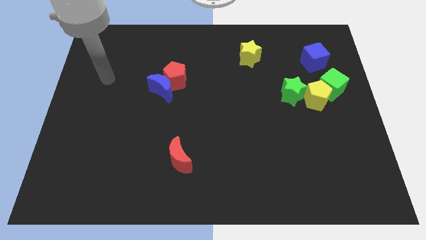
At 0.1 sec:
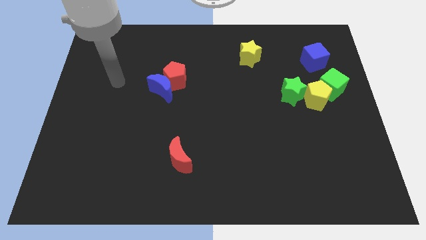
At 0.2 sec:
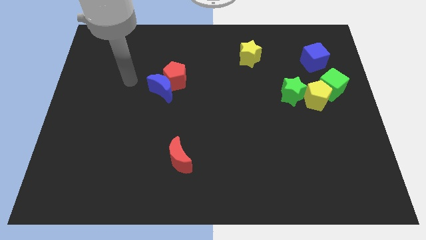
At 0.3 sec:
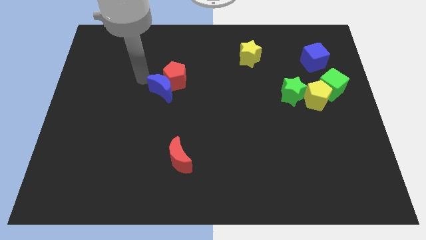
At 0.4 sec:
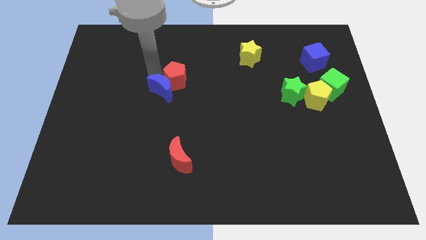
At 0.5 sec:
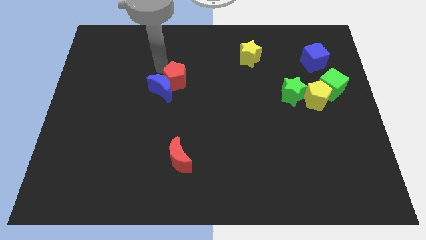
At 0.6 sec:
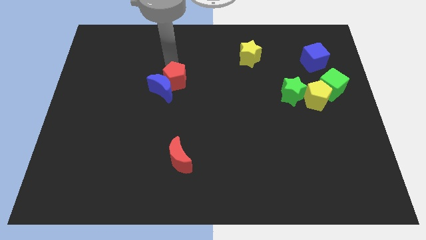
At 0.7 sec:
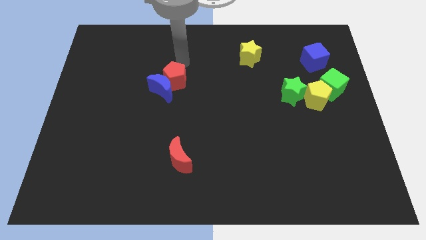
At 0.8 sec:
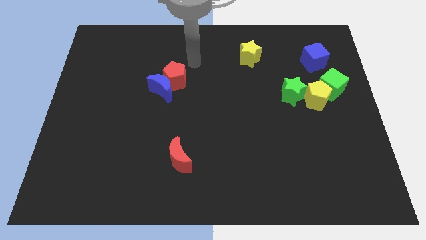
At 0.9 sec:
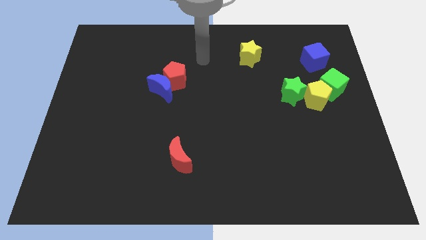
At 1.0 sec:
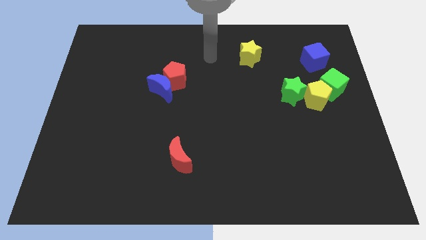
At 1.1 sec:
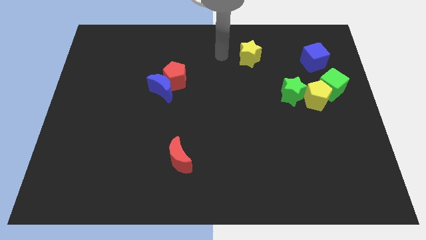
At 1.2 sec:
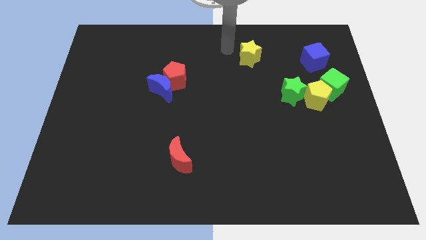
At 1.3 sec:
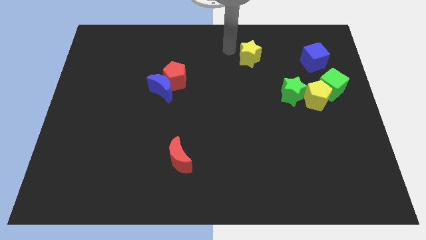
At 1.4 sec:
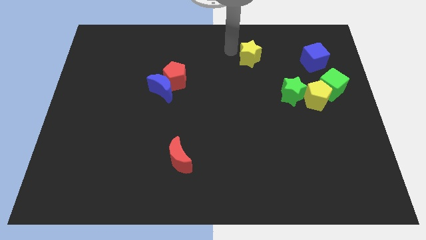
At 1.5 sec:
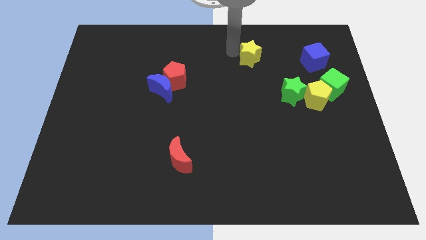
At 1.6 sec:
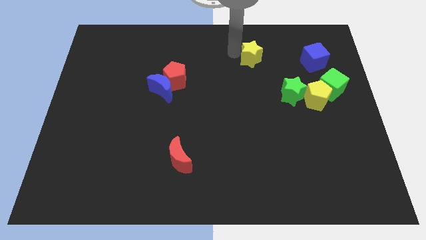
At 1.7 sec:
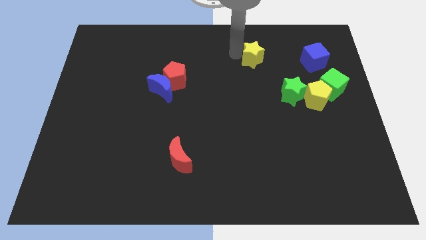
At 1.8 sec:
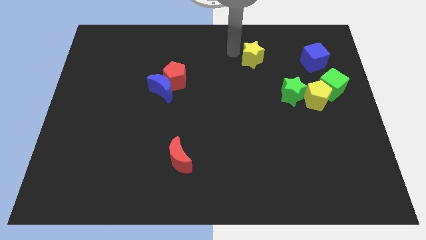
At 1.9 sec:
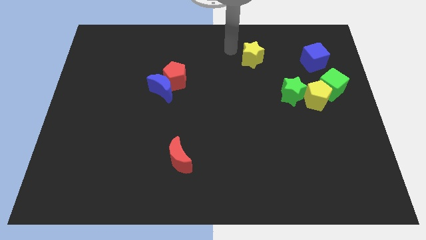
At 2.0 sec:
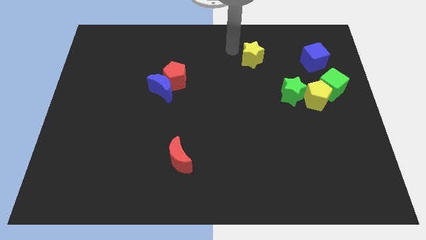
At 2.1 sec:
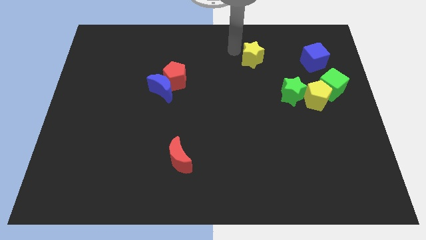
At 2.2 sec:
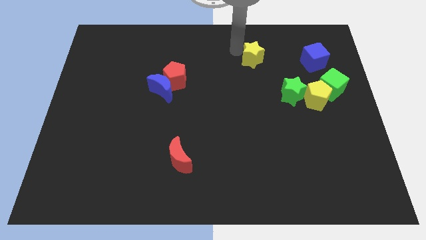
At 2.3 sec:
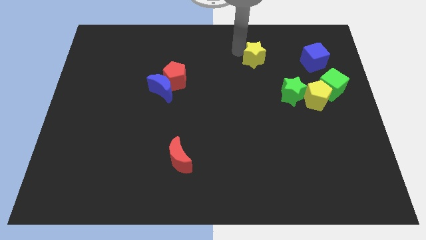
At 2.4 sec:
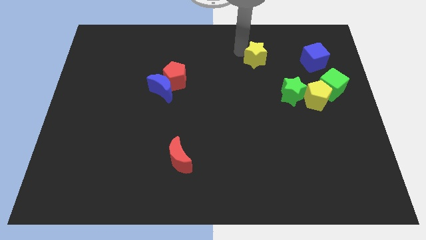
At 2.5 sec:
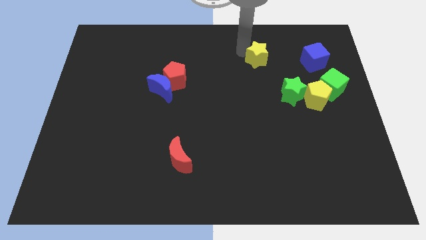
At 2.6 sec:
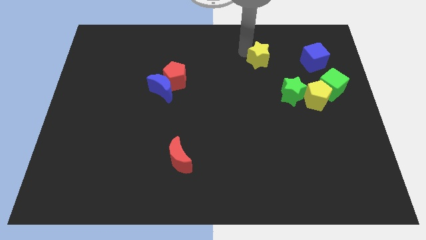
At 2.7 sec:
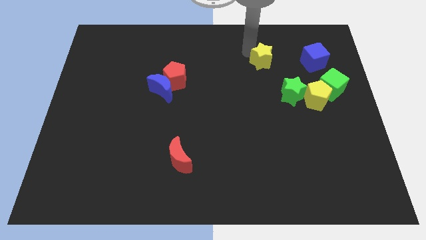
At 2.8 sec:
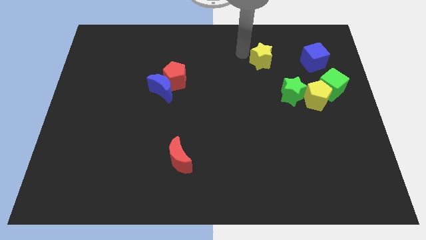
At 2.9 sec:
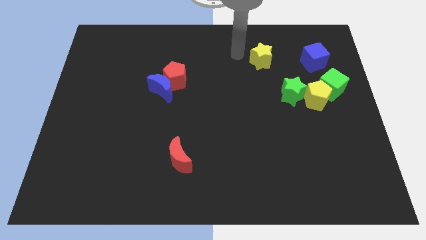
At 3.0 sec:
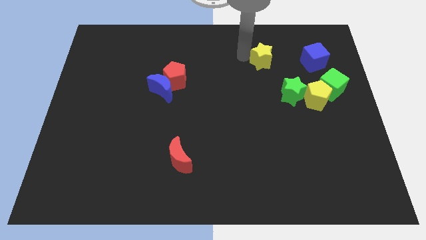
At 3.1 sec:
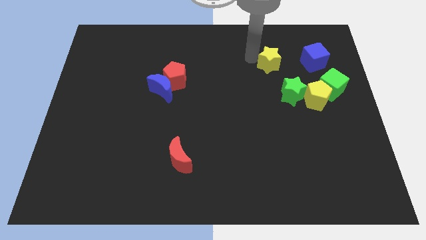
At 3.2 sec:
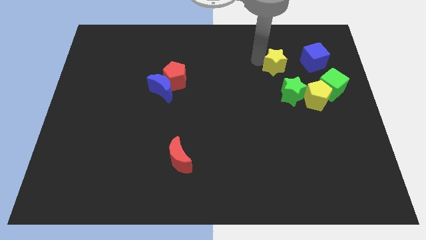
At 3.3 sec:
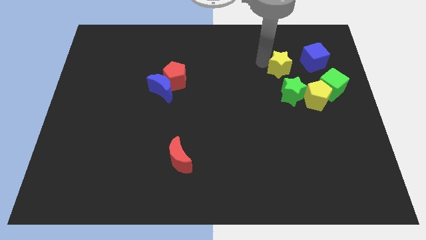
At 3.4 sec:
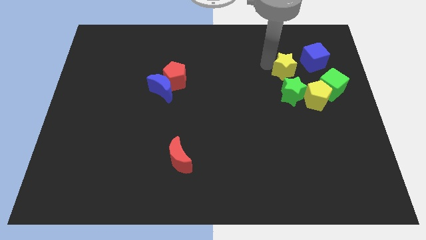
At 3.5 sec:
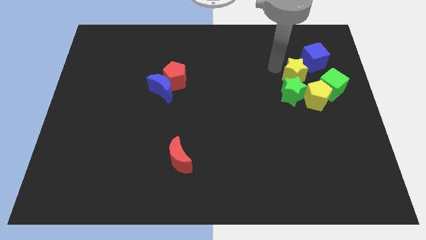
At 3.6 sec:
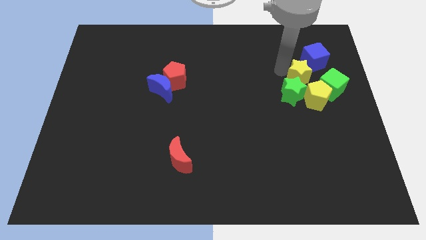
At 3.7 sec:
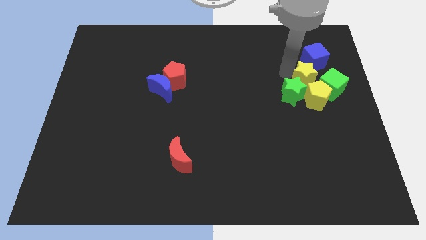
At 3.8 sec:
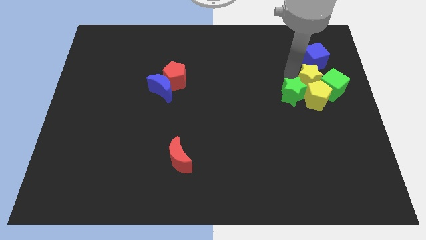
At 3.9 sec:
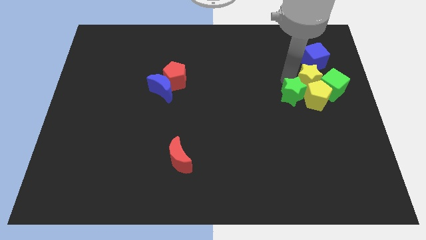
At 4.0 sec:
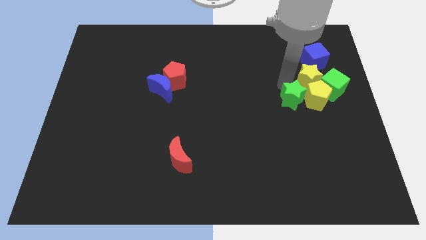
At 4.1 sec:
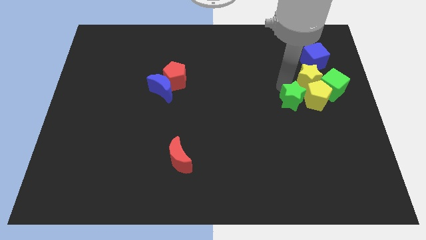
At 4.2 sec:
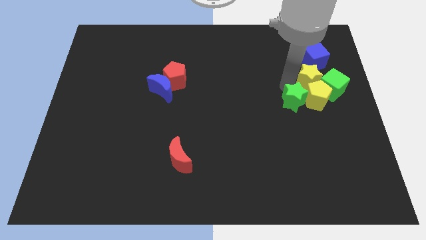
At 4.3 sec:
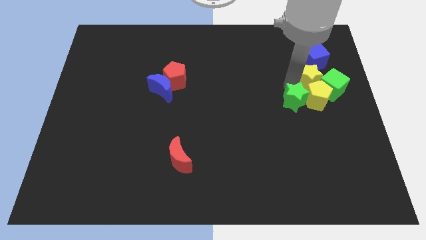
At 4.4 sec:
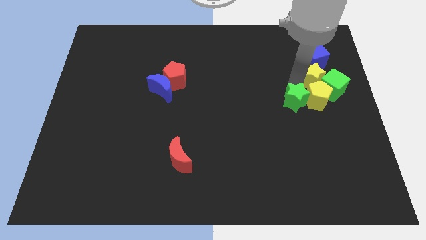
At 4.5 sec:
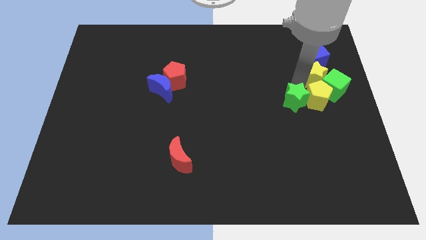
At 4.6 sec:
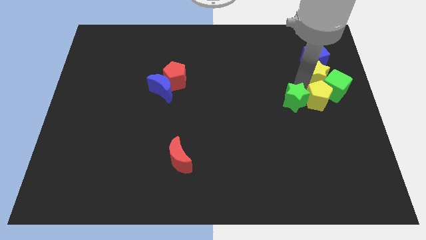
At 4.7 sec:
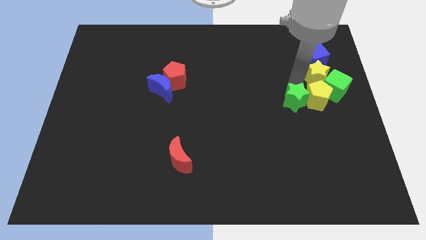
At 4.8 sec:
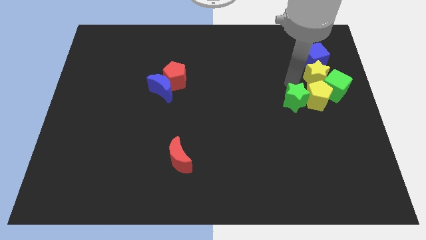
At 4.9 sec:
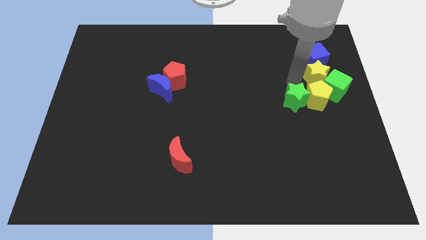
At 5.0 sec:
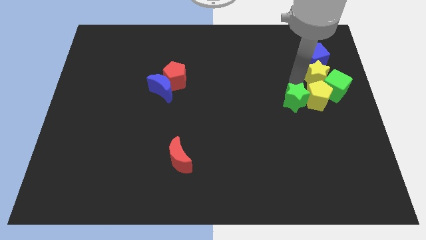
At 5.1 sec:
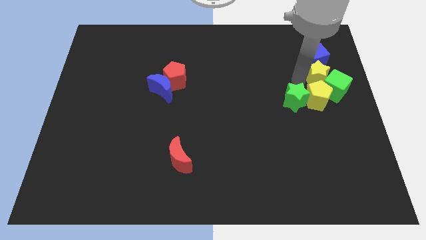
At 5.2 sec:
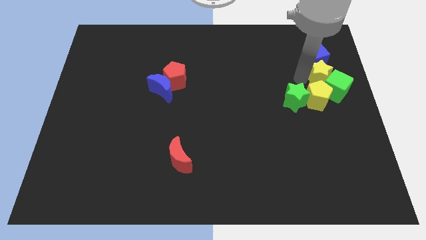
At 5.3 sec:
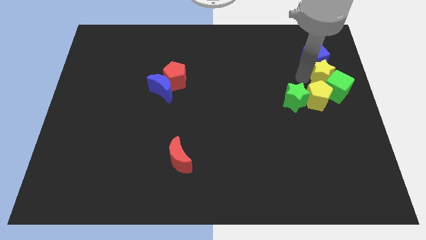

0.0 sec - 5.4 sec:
push the yellow star to the right side of the board

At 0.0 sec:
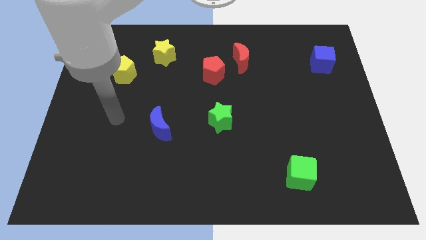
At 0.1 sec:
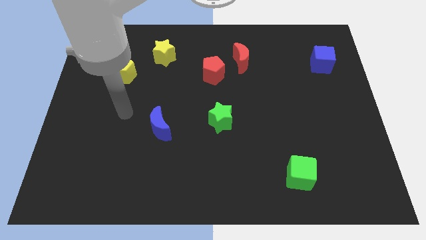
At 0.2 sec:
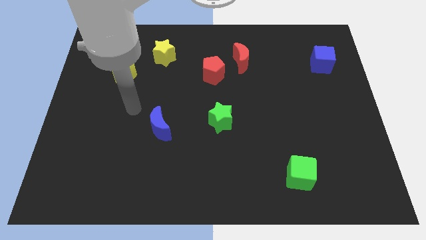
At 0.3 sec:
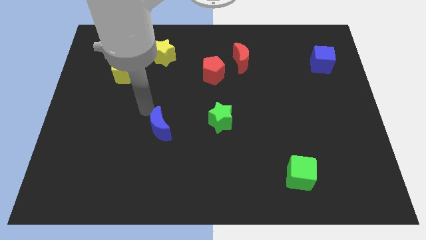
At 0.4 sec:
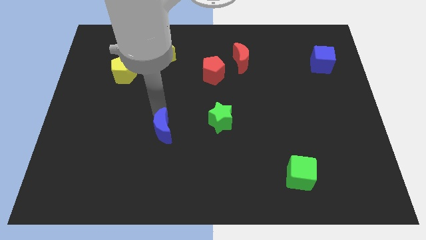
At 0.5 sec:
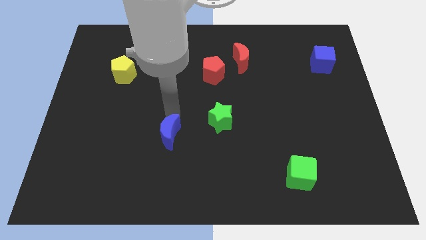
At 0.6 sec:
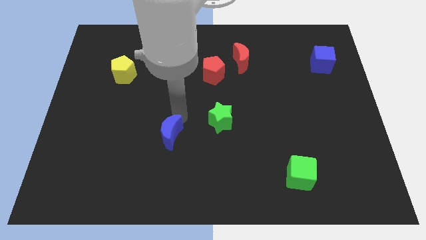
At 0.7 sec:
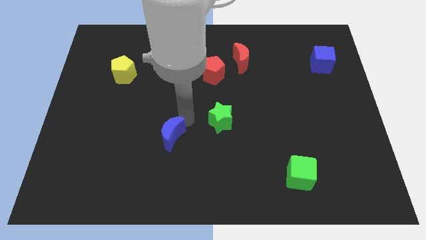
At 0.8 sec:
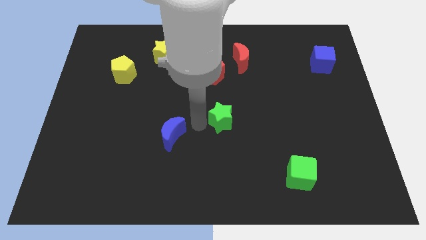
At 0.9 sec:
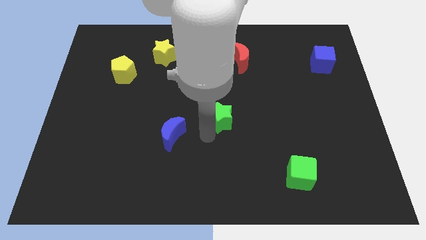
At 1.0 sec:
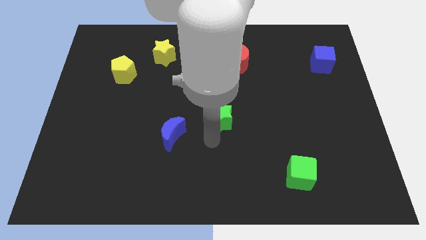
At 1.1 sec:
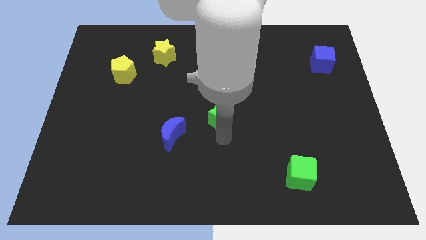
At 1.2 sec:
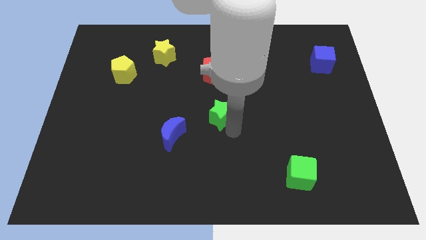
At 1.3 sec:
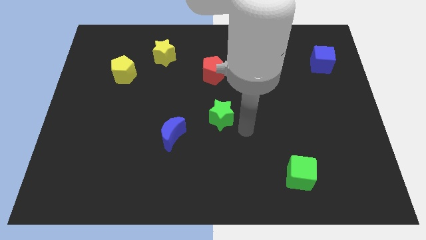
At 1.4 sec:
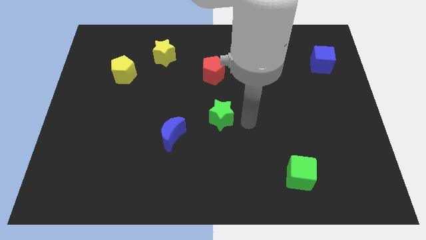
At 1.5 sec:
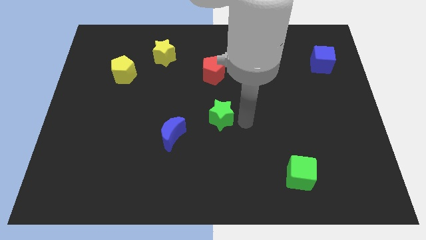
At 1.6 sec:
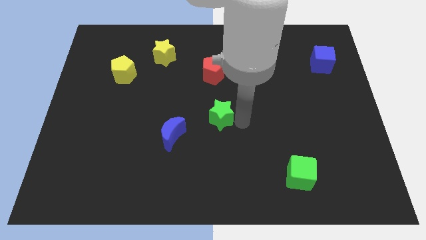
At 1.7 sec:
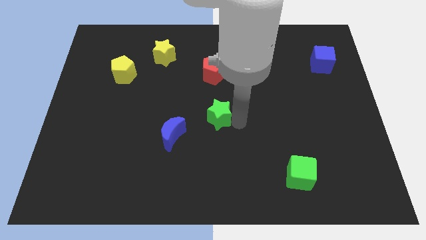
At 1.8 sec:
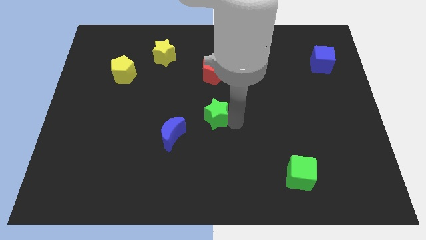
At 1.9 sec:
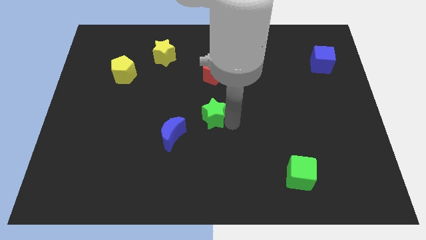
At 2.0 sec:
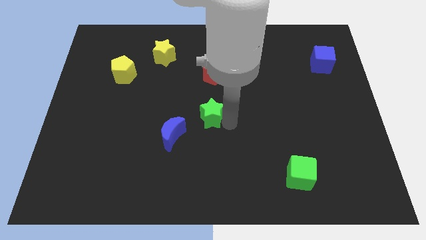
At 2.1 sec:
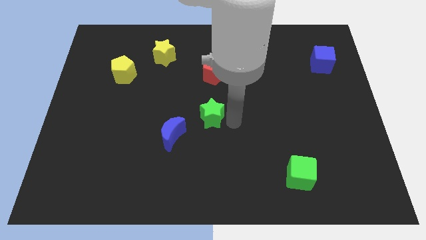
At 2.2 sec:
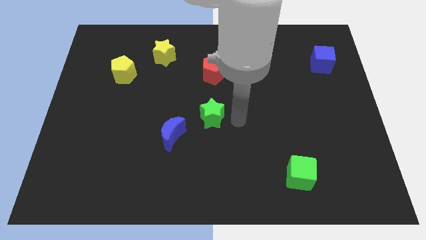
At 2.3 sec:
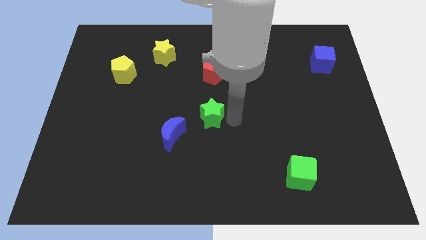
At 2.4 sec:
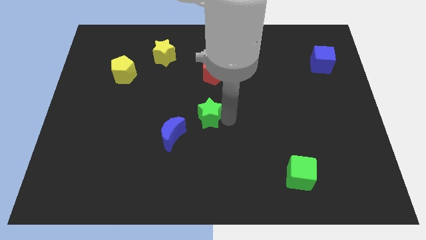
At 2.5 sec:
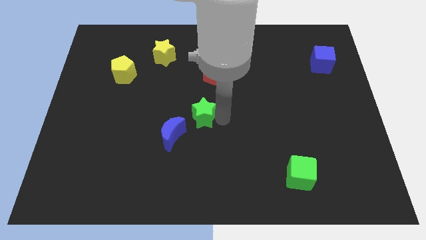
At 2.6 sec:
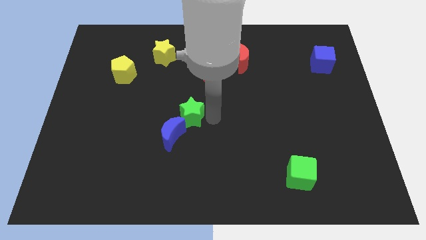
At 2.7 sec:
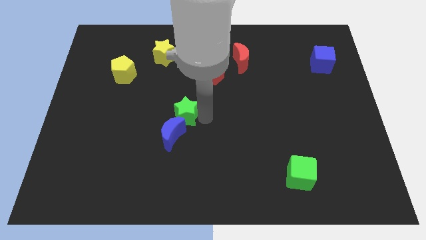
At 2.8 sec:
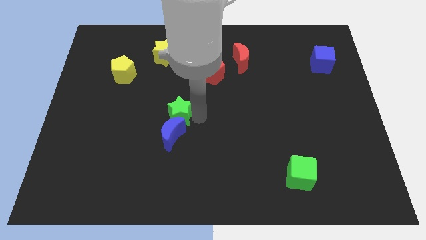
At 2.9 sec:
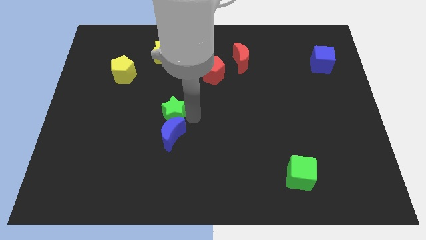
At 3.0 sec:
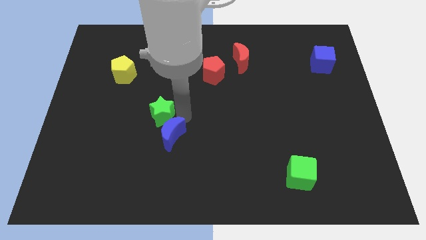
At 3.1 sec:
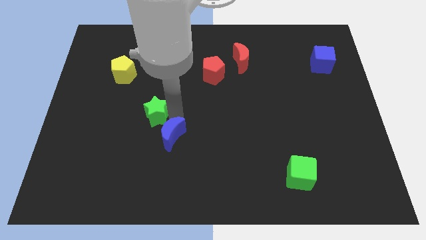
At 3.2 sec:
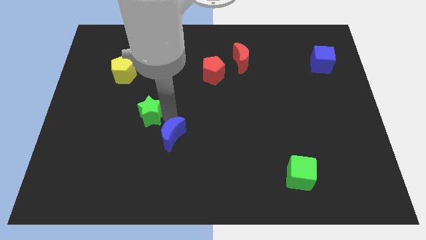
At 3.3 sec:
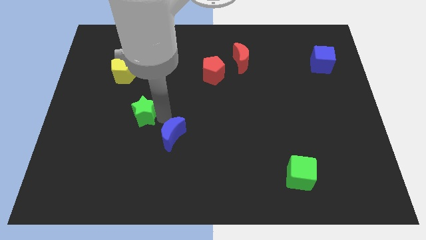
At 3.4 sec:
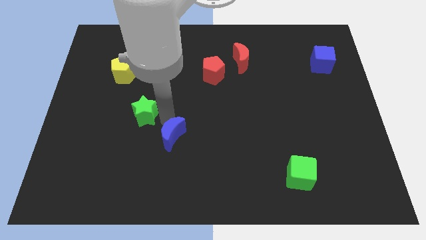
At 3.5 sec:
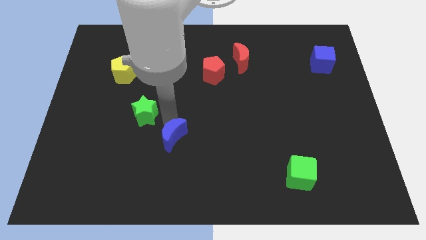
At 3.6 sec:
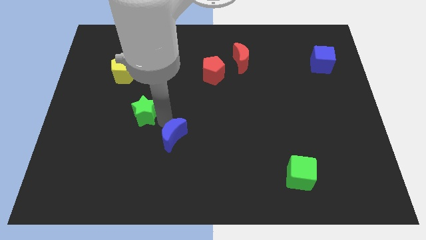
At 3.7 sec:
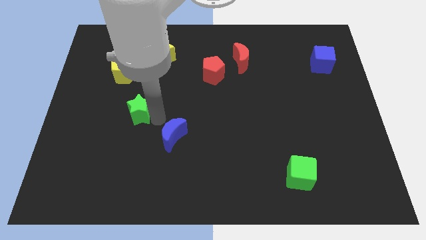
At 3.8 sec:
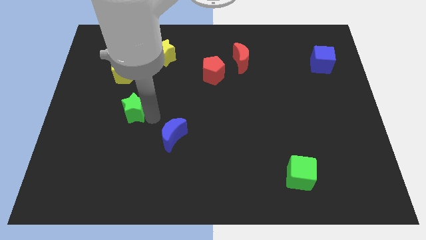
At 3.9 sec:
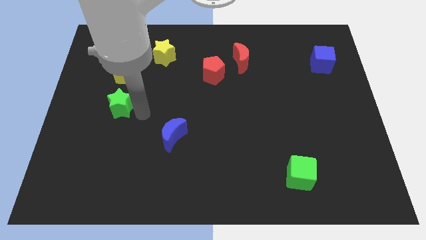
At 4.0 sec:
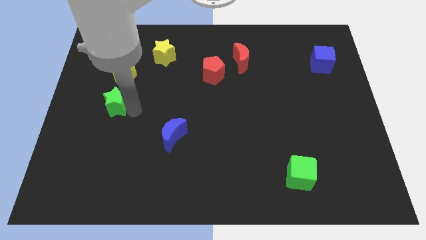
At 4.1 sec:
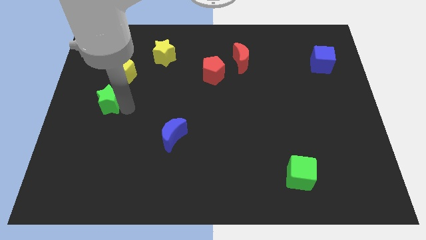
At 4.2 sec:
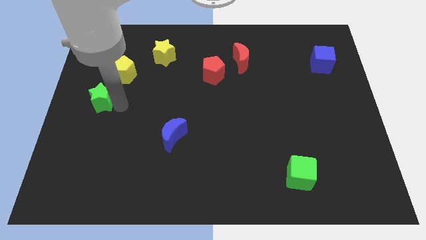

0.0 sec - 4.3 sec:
put the green star to the left side of the board
